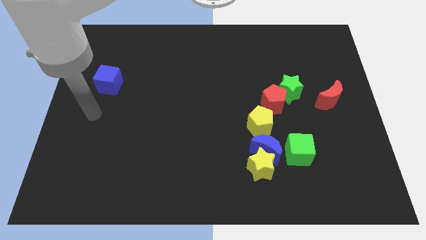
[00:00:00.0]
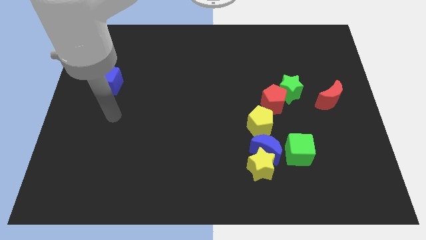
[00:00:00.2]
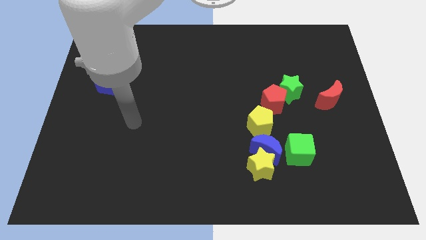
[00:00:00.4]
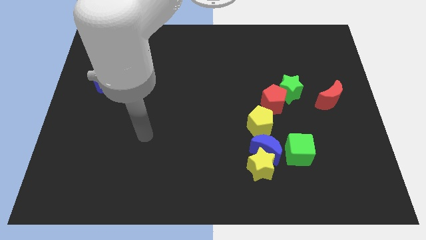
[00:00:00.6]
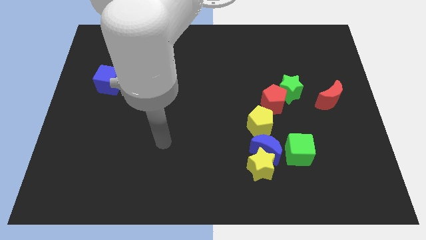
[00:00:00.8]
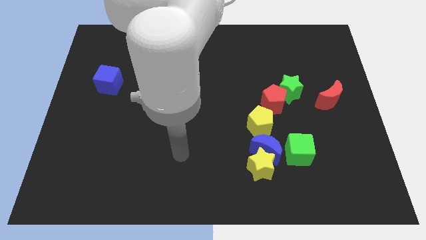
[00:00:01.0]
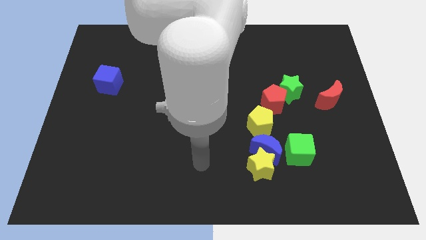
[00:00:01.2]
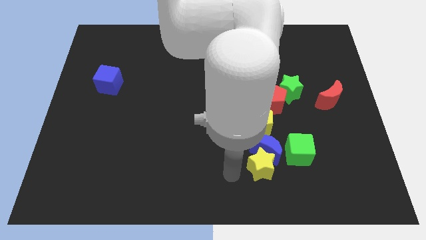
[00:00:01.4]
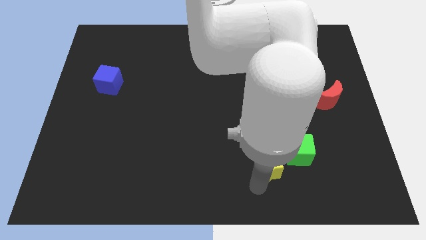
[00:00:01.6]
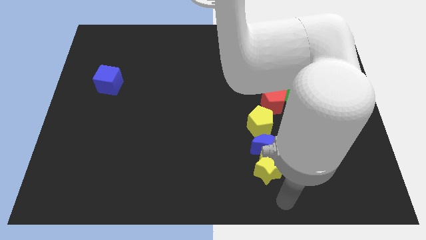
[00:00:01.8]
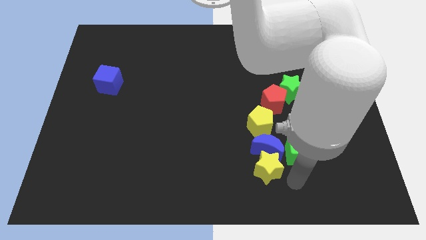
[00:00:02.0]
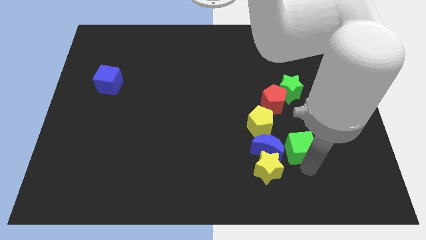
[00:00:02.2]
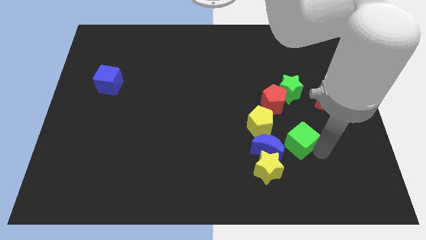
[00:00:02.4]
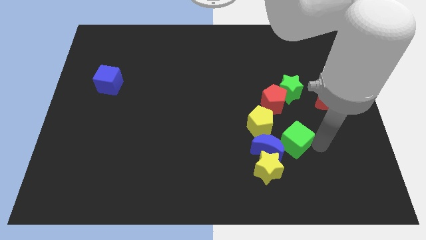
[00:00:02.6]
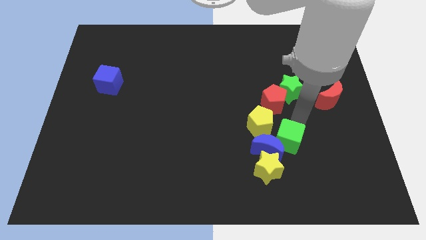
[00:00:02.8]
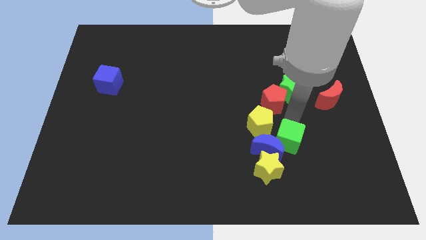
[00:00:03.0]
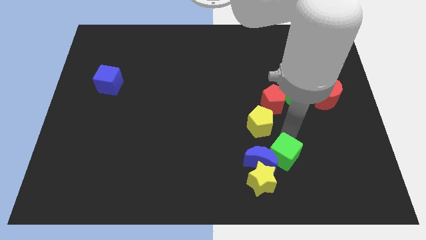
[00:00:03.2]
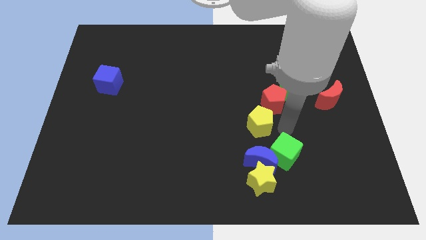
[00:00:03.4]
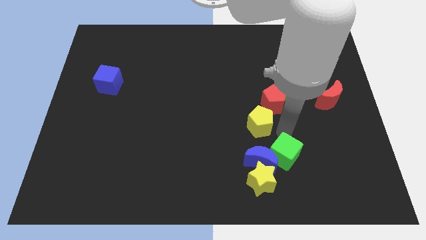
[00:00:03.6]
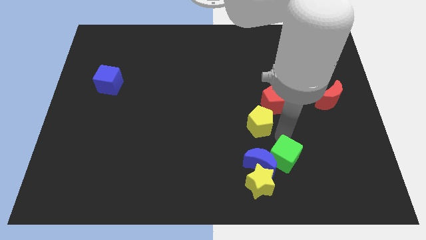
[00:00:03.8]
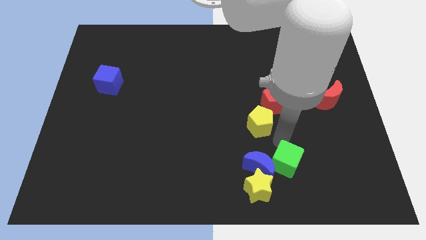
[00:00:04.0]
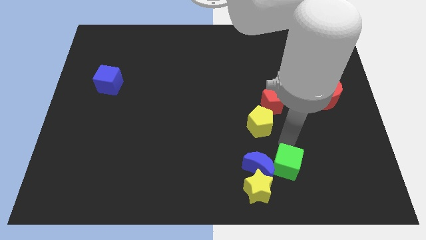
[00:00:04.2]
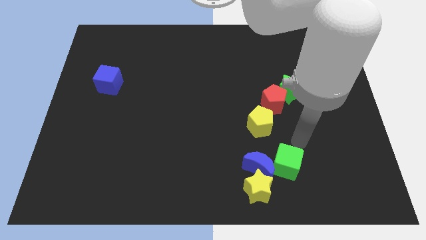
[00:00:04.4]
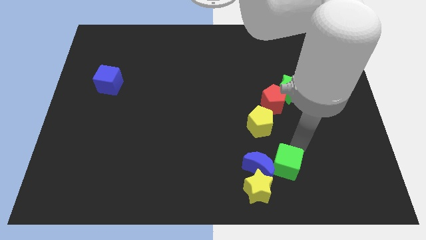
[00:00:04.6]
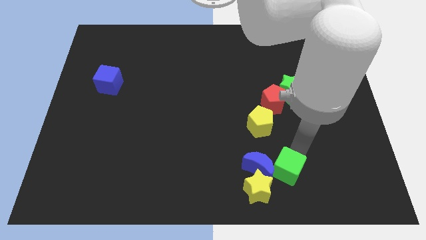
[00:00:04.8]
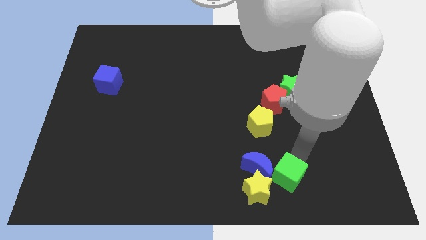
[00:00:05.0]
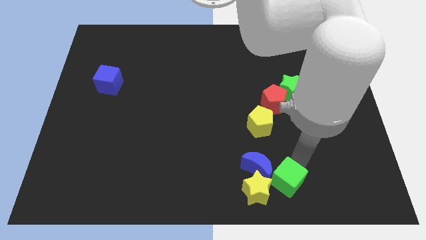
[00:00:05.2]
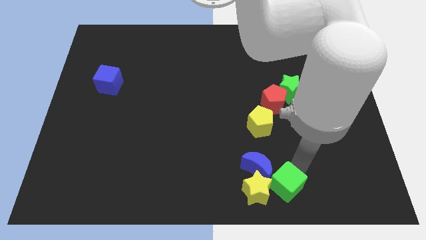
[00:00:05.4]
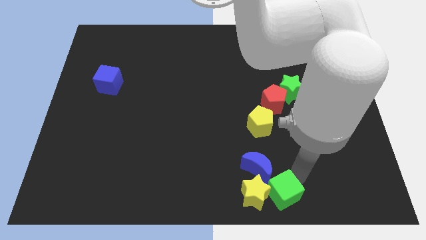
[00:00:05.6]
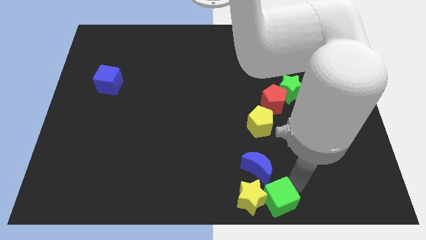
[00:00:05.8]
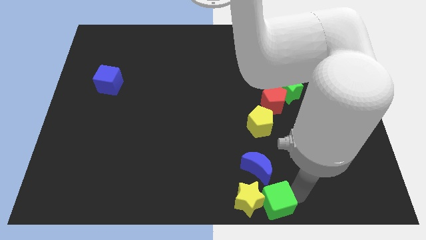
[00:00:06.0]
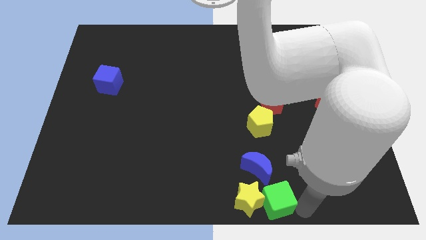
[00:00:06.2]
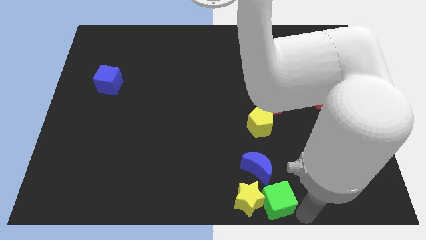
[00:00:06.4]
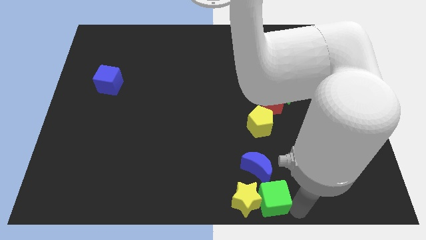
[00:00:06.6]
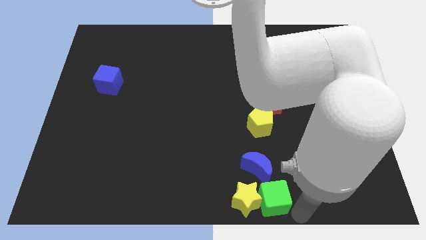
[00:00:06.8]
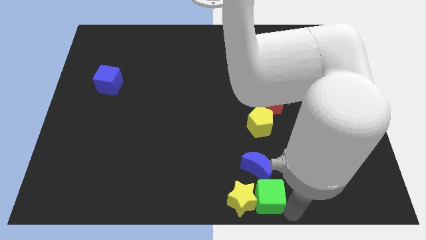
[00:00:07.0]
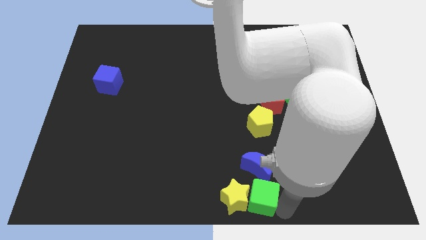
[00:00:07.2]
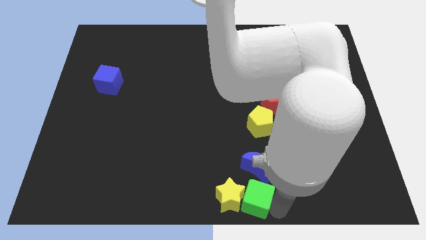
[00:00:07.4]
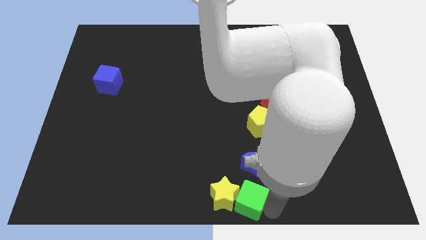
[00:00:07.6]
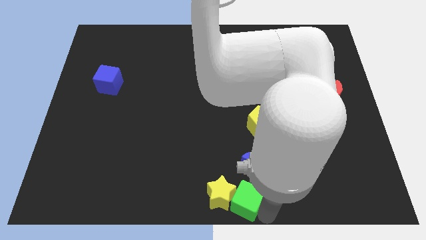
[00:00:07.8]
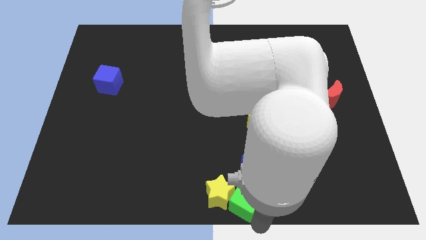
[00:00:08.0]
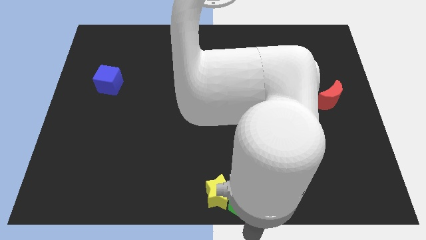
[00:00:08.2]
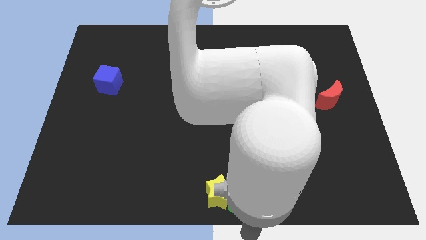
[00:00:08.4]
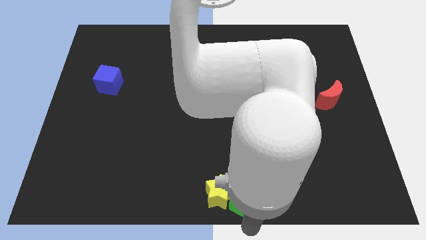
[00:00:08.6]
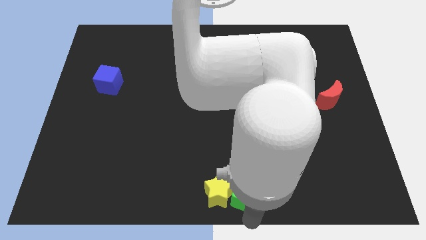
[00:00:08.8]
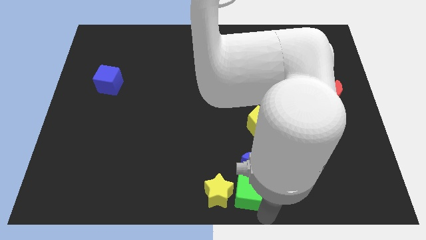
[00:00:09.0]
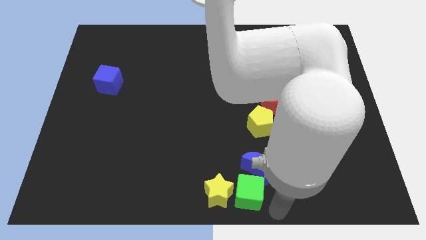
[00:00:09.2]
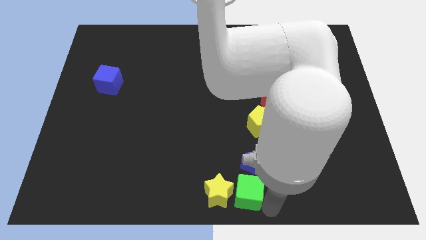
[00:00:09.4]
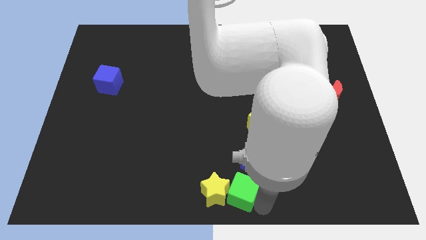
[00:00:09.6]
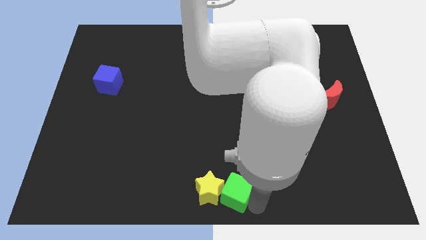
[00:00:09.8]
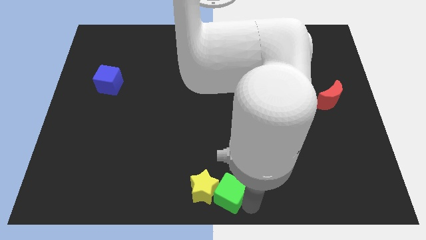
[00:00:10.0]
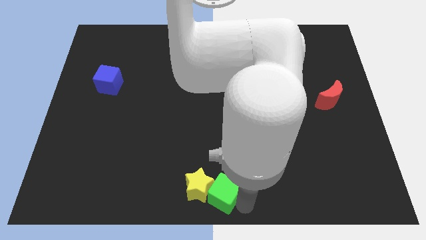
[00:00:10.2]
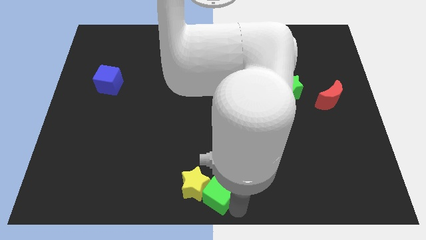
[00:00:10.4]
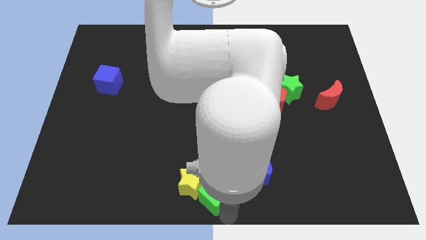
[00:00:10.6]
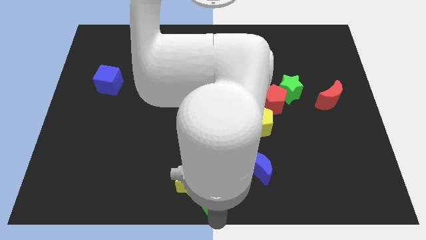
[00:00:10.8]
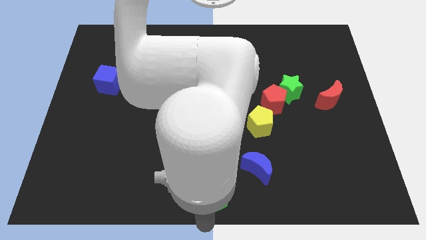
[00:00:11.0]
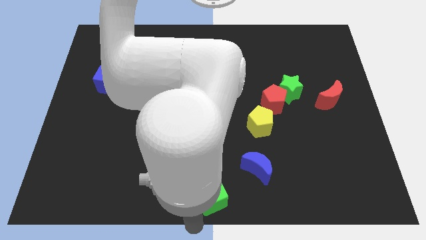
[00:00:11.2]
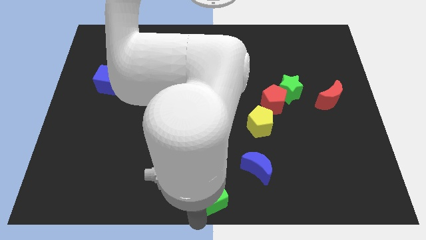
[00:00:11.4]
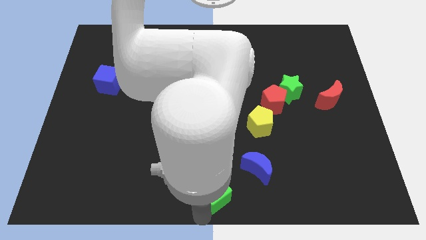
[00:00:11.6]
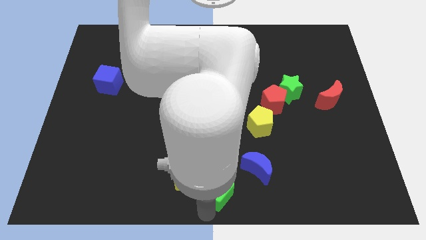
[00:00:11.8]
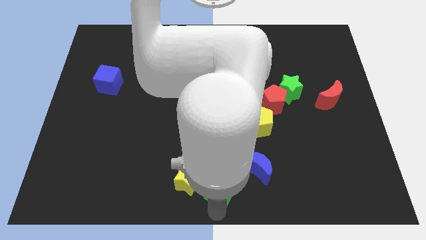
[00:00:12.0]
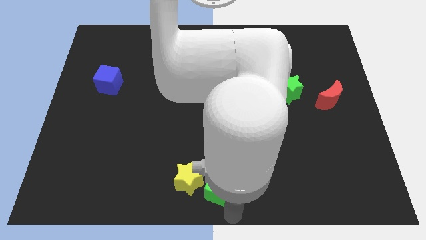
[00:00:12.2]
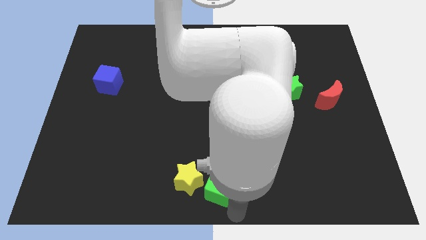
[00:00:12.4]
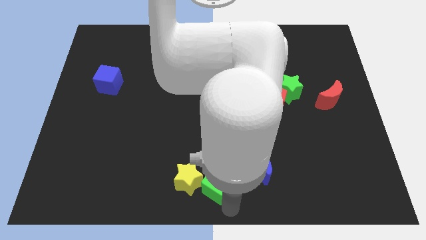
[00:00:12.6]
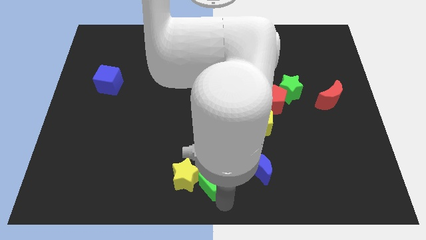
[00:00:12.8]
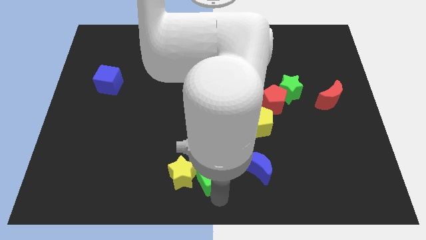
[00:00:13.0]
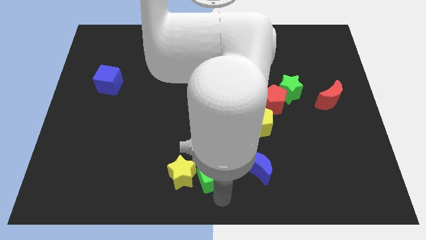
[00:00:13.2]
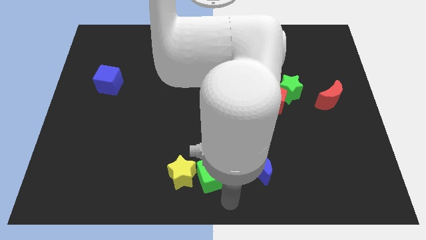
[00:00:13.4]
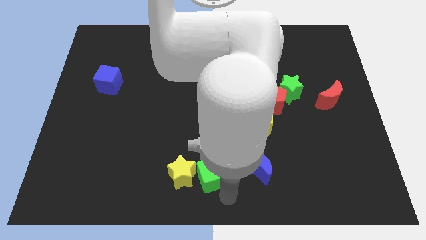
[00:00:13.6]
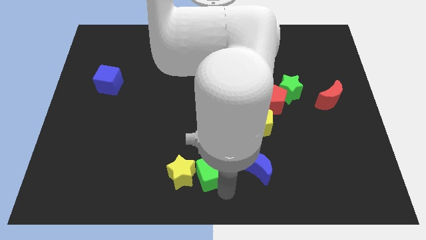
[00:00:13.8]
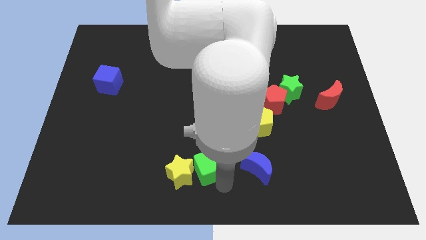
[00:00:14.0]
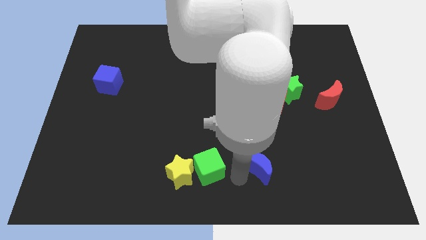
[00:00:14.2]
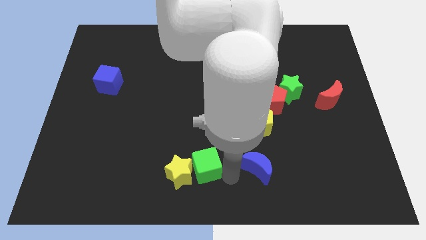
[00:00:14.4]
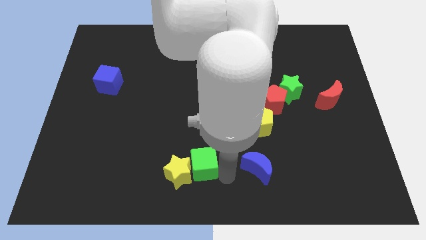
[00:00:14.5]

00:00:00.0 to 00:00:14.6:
slide the green cube left
